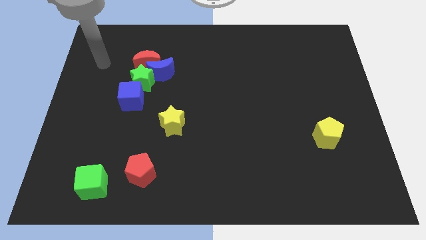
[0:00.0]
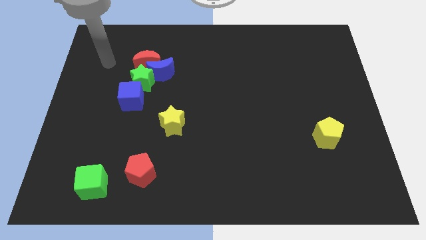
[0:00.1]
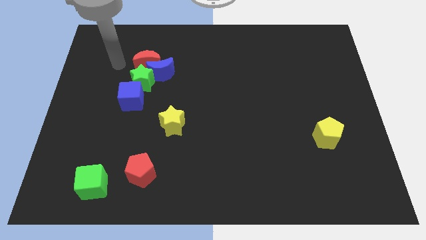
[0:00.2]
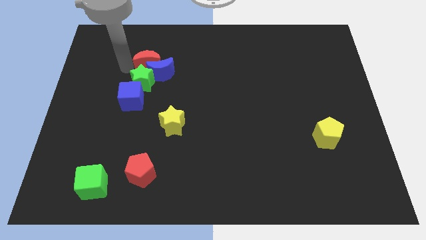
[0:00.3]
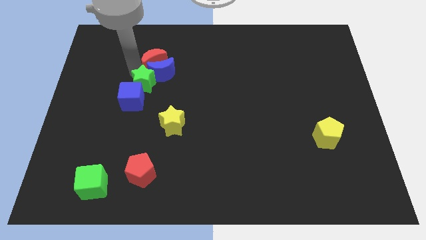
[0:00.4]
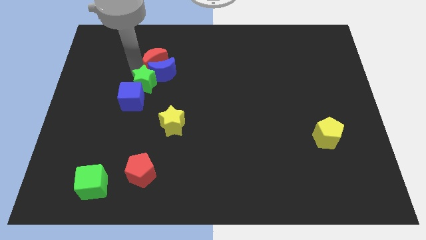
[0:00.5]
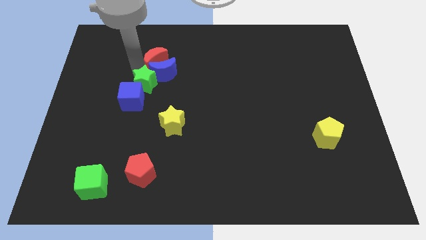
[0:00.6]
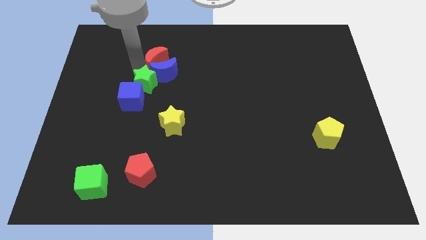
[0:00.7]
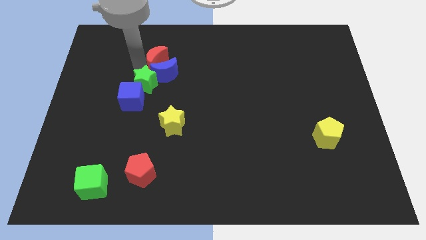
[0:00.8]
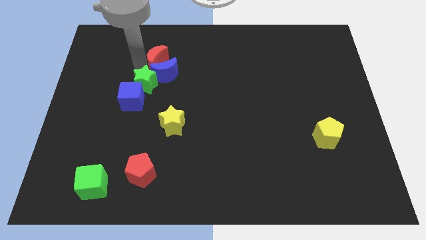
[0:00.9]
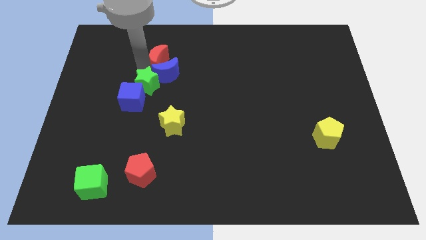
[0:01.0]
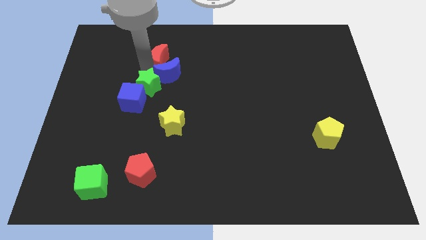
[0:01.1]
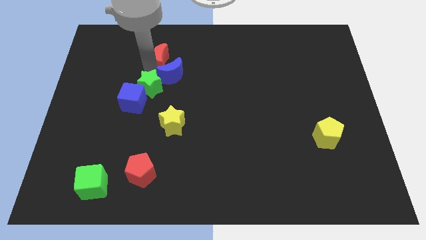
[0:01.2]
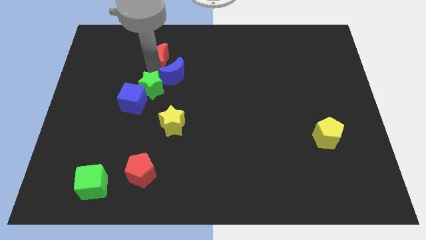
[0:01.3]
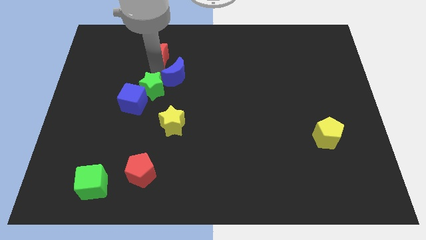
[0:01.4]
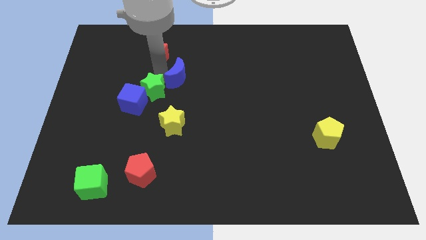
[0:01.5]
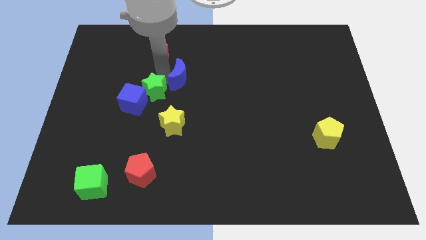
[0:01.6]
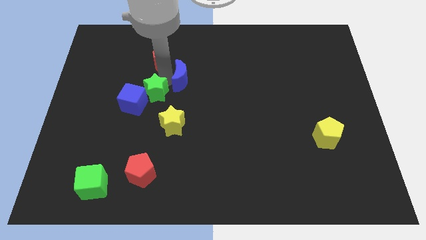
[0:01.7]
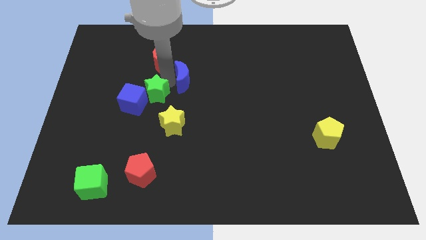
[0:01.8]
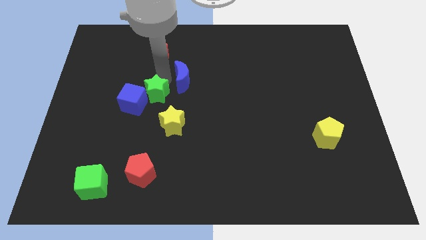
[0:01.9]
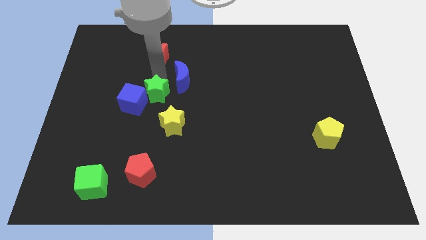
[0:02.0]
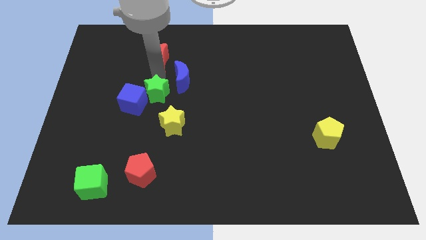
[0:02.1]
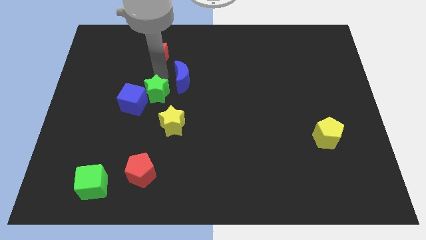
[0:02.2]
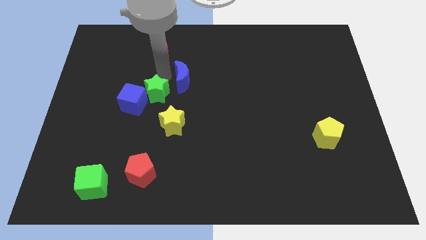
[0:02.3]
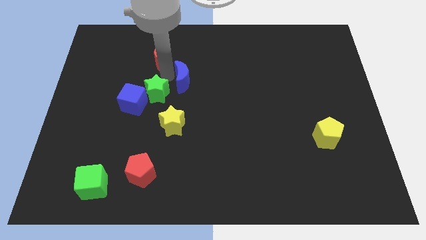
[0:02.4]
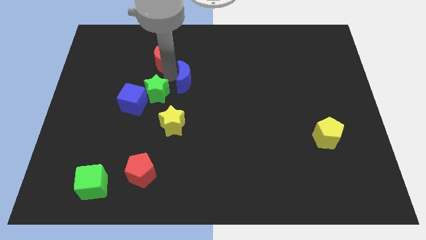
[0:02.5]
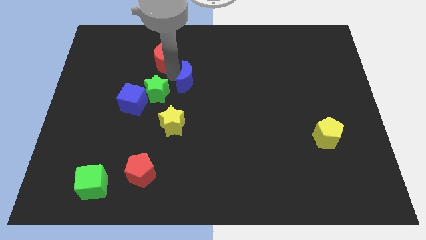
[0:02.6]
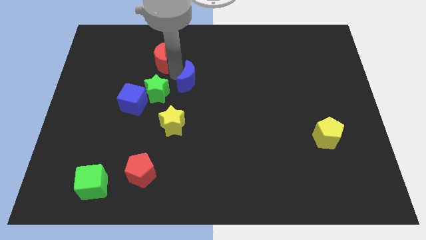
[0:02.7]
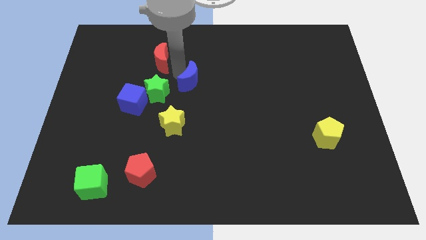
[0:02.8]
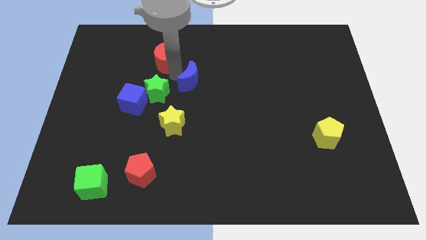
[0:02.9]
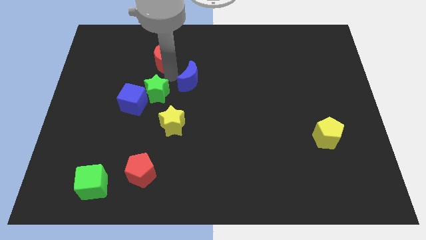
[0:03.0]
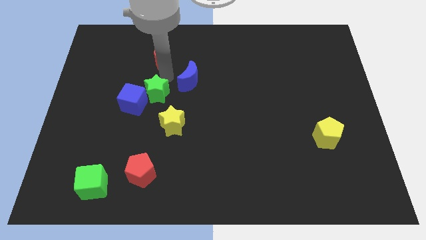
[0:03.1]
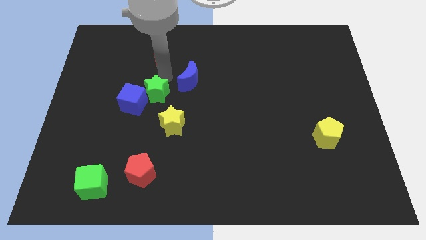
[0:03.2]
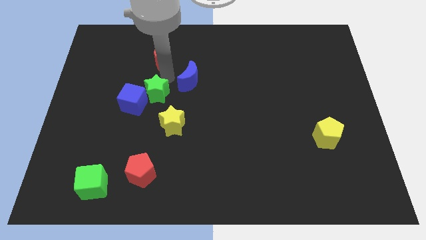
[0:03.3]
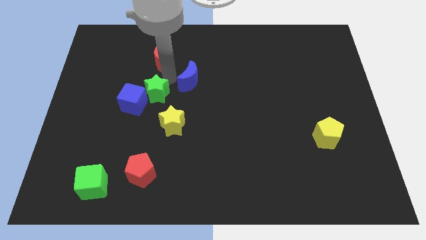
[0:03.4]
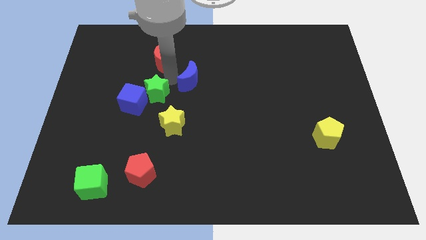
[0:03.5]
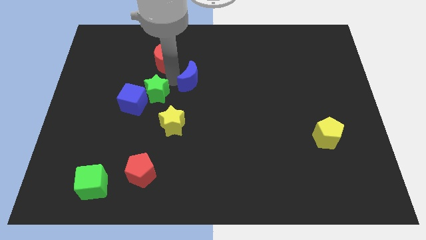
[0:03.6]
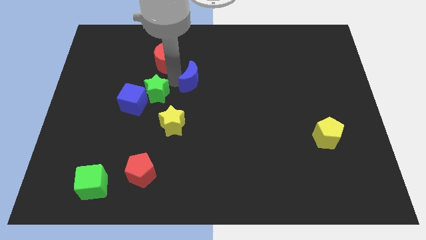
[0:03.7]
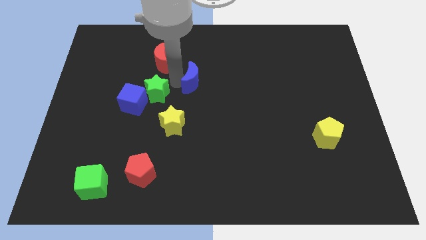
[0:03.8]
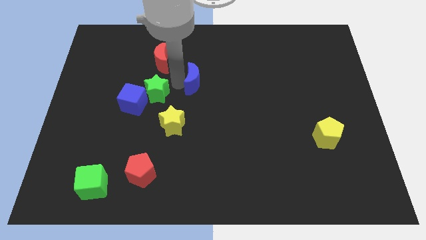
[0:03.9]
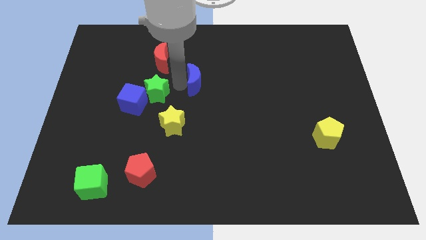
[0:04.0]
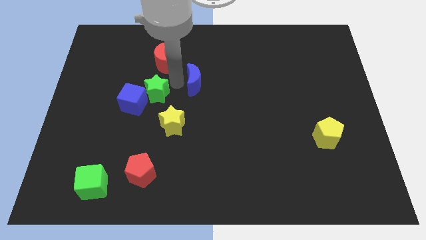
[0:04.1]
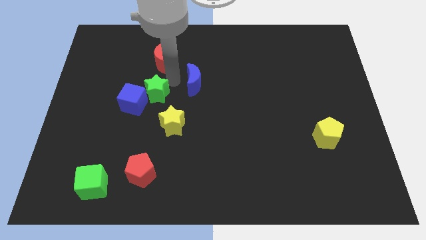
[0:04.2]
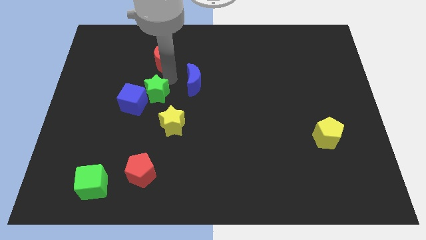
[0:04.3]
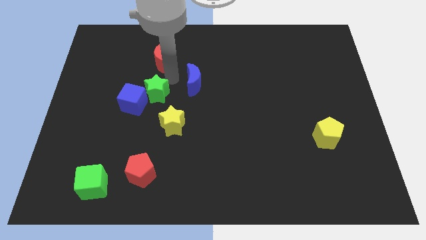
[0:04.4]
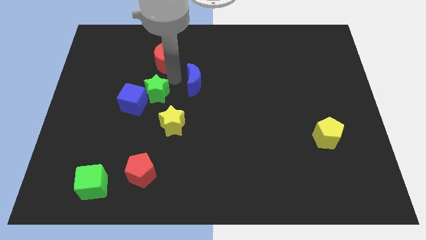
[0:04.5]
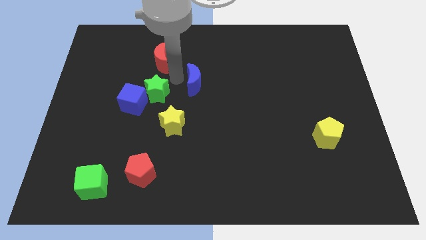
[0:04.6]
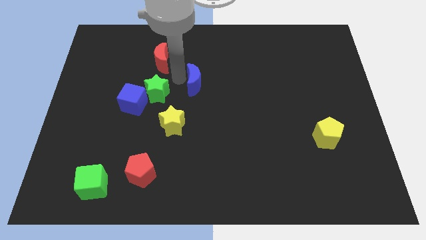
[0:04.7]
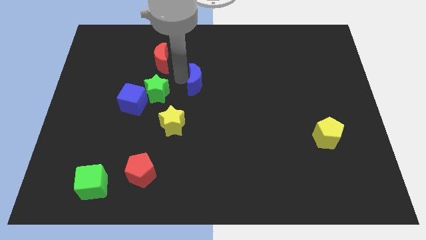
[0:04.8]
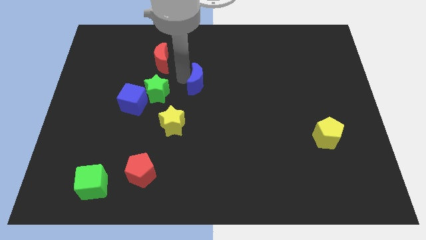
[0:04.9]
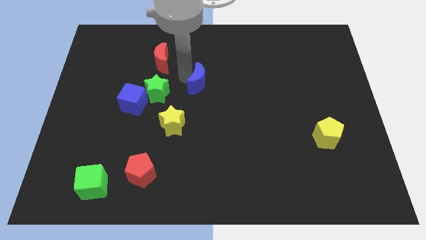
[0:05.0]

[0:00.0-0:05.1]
move the blue moon away from the red moon and green star

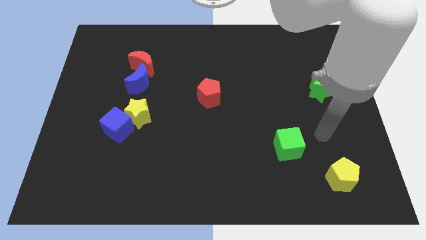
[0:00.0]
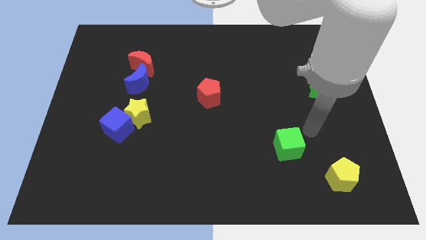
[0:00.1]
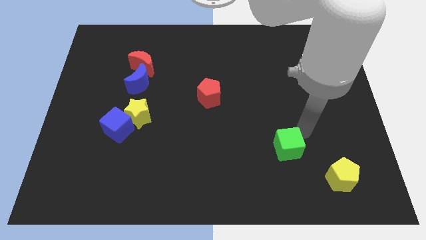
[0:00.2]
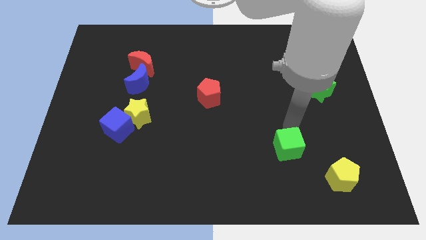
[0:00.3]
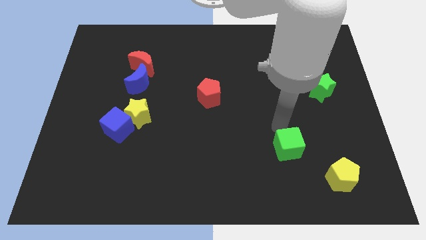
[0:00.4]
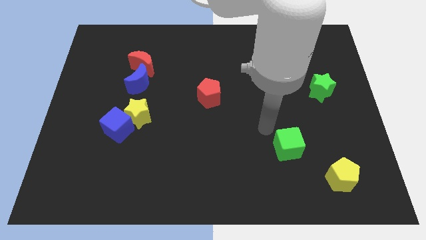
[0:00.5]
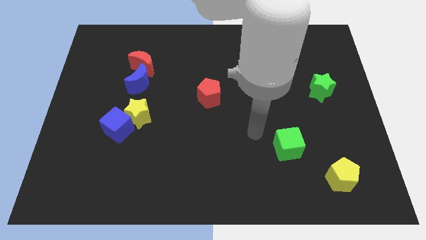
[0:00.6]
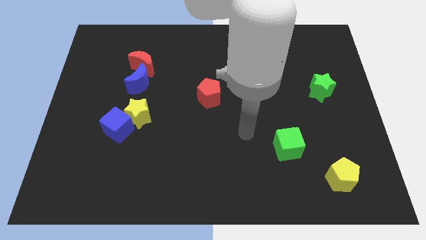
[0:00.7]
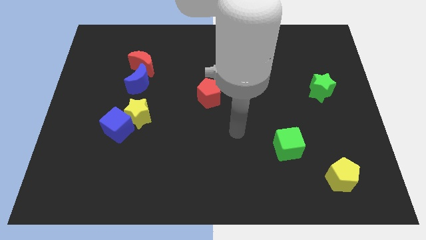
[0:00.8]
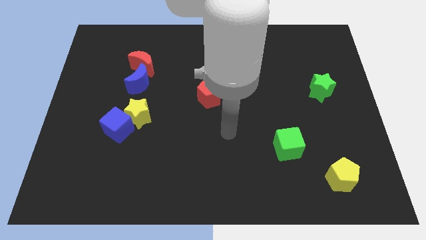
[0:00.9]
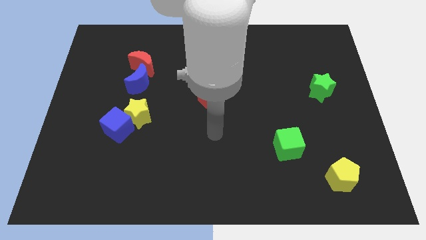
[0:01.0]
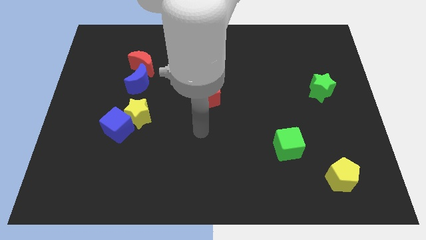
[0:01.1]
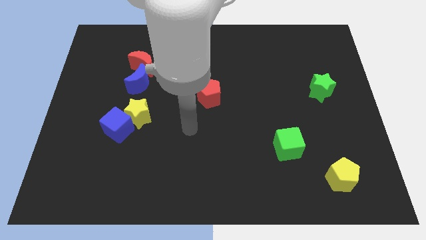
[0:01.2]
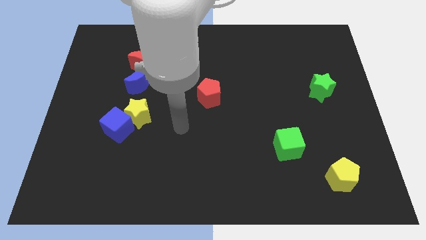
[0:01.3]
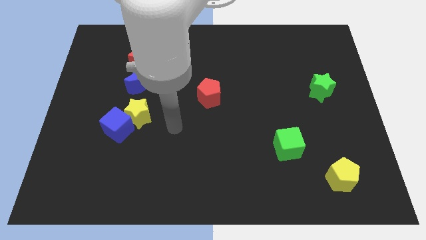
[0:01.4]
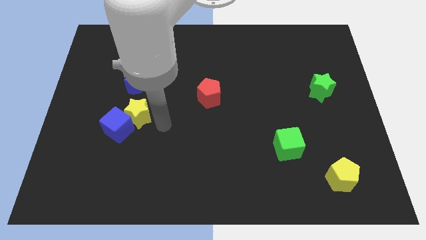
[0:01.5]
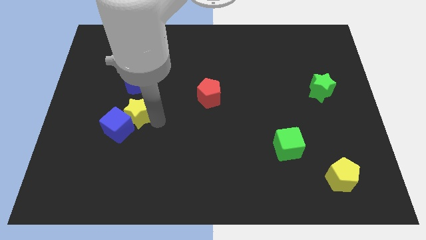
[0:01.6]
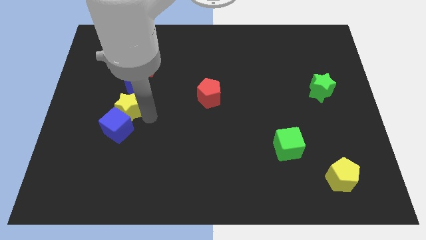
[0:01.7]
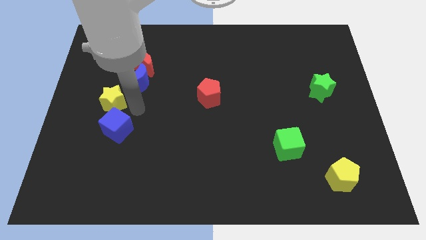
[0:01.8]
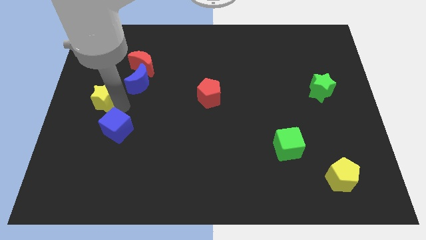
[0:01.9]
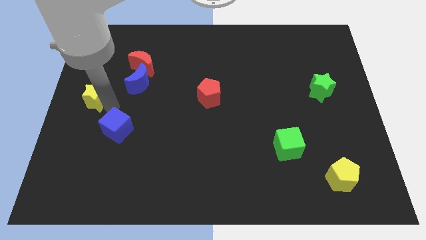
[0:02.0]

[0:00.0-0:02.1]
separate the blue cube from the yellow star

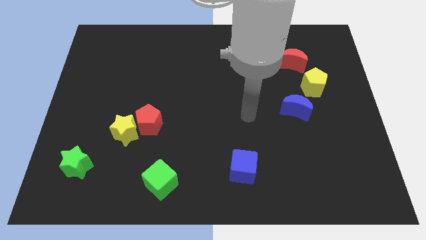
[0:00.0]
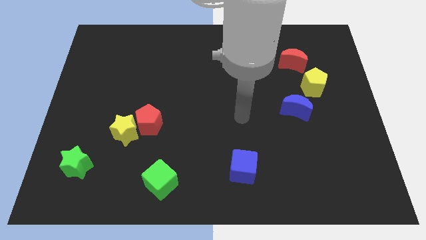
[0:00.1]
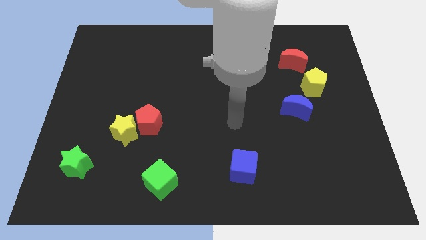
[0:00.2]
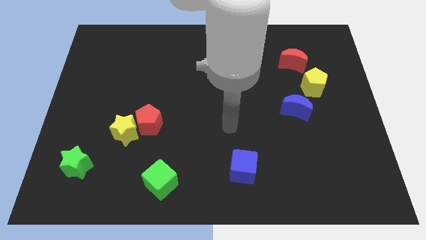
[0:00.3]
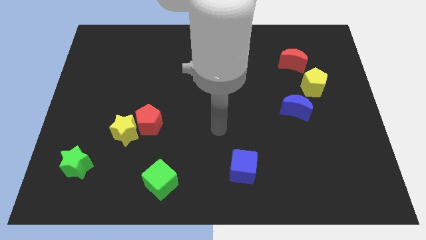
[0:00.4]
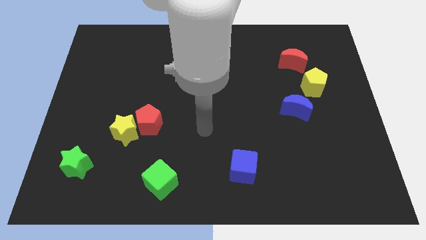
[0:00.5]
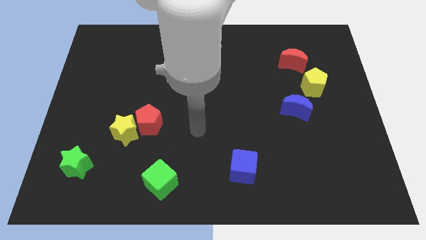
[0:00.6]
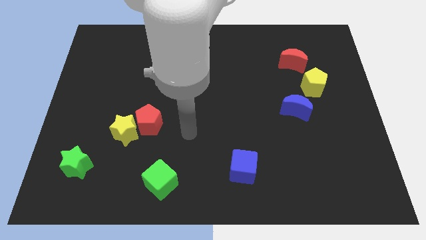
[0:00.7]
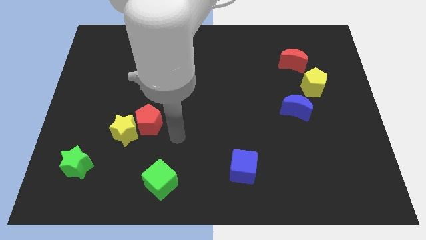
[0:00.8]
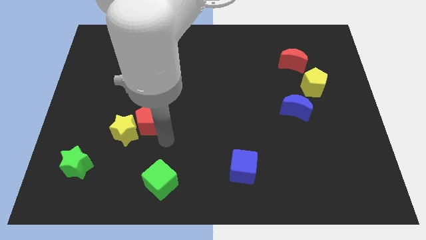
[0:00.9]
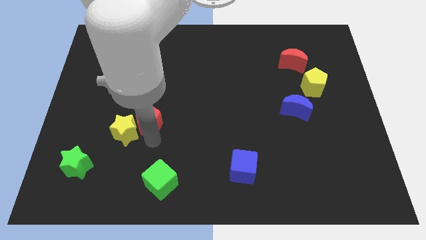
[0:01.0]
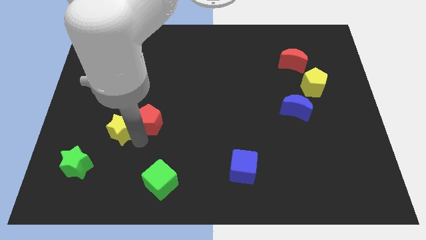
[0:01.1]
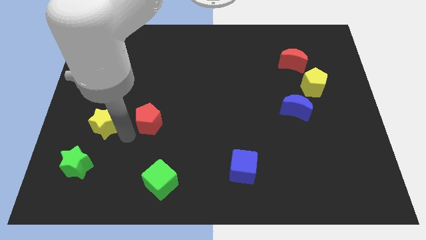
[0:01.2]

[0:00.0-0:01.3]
pull the red pentagon apart from the yellow star

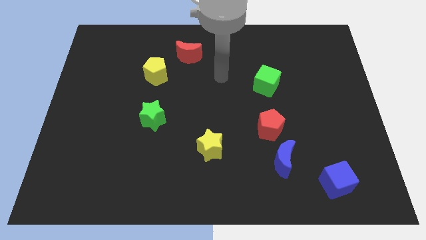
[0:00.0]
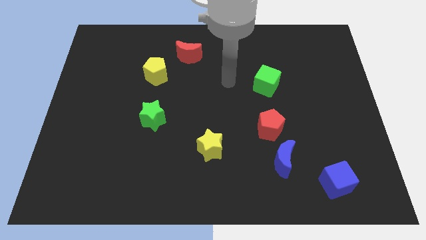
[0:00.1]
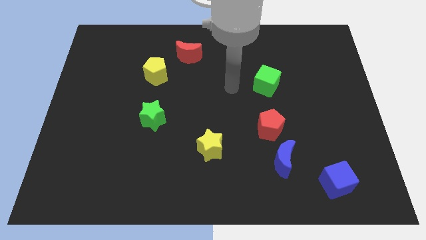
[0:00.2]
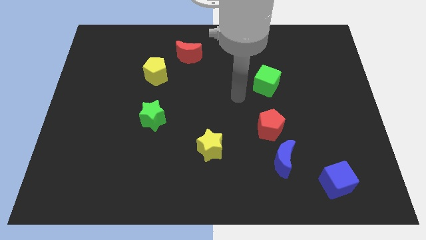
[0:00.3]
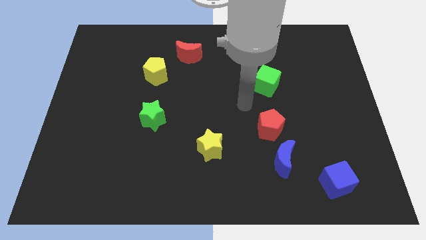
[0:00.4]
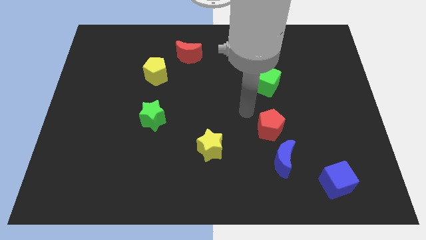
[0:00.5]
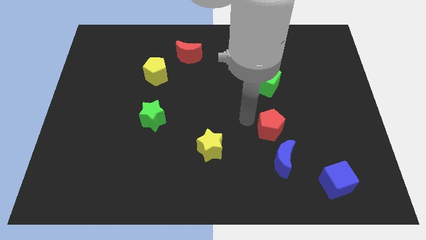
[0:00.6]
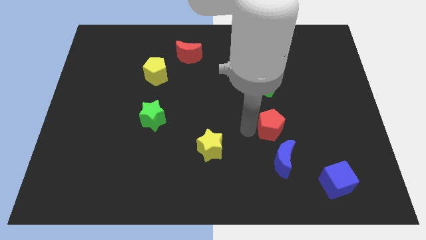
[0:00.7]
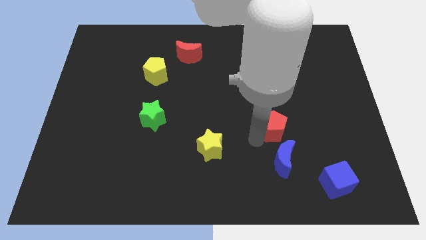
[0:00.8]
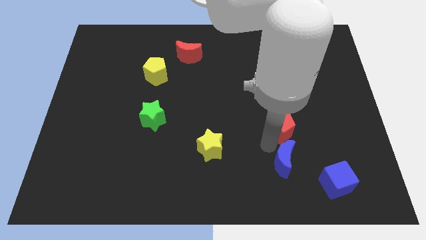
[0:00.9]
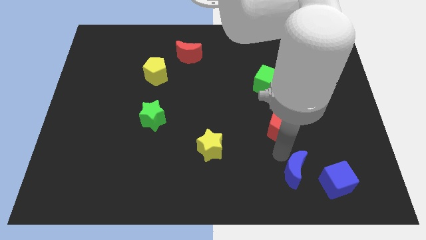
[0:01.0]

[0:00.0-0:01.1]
separate the red pentagon from the blue moon
